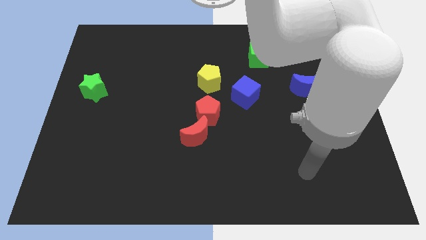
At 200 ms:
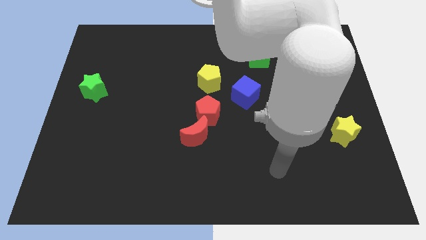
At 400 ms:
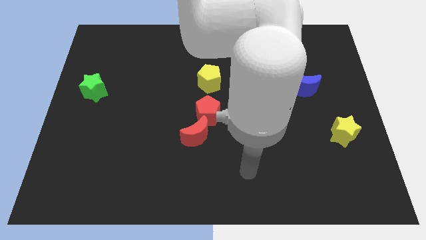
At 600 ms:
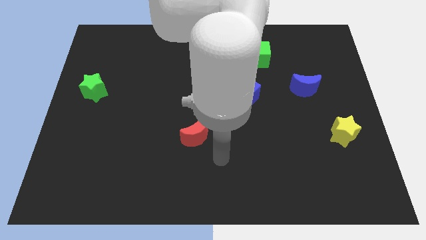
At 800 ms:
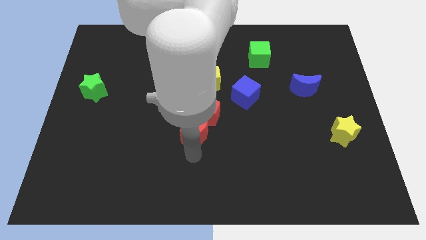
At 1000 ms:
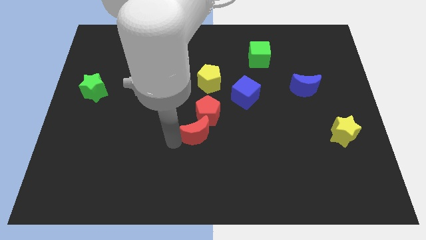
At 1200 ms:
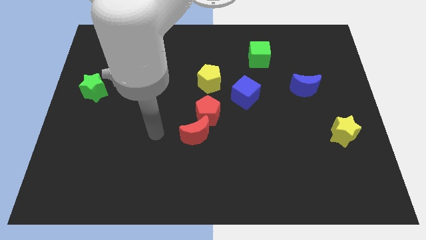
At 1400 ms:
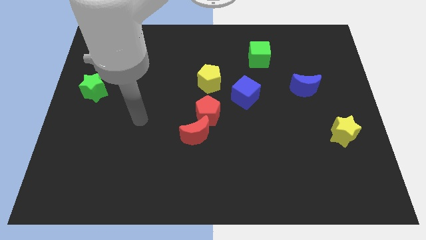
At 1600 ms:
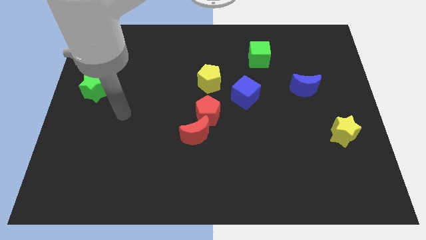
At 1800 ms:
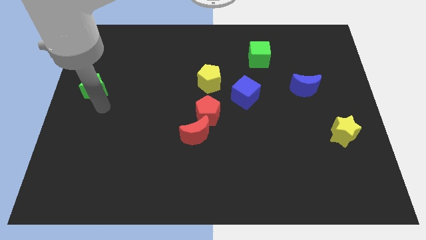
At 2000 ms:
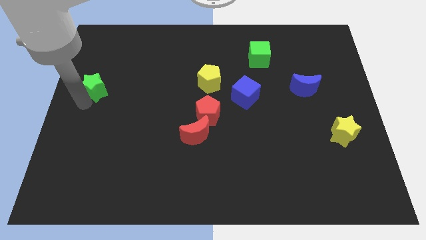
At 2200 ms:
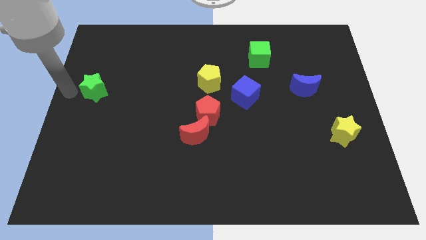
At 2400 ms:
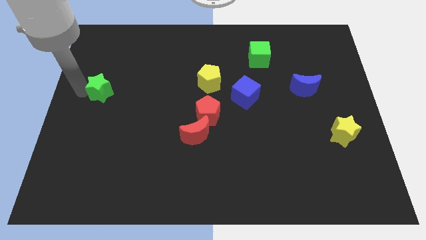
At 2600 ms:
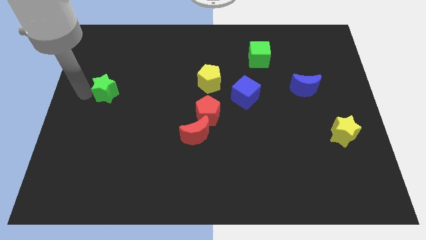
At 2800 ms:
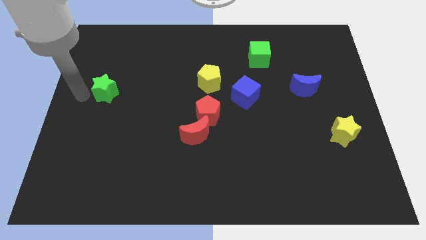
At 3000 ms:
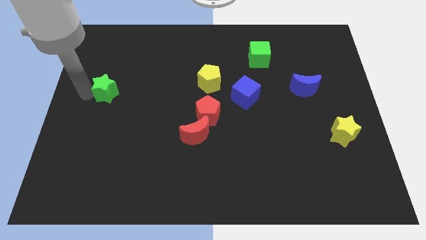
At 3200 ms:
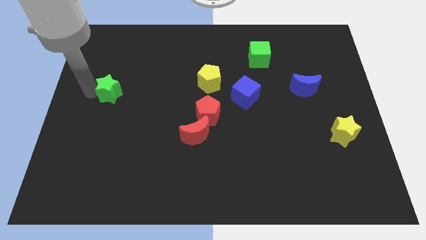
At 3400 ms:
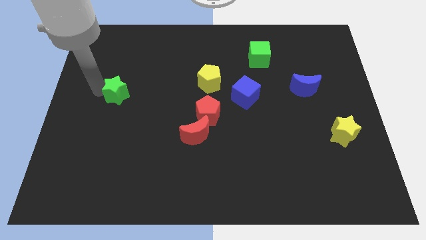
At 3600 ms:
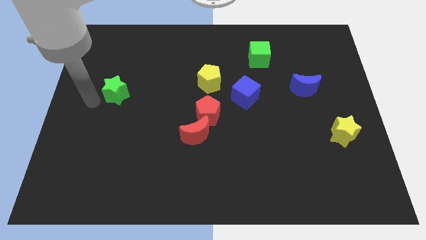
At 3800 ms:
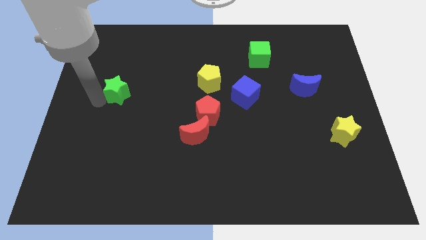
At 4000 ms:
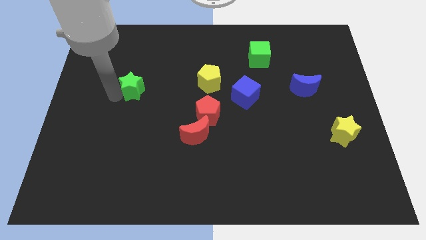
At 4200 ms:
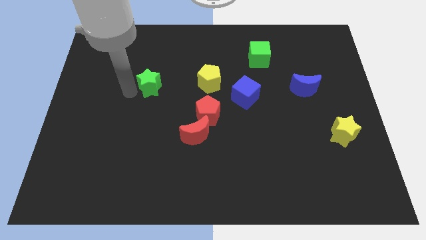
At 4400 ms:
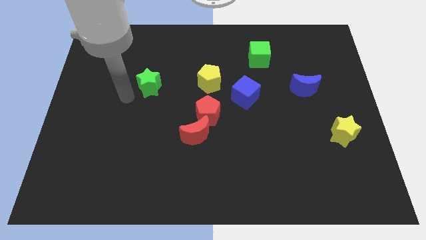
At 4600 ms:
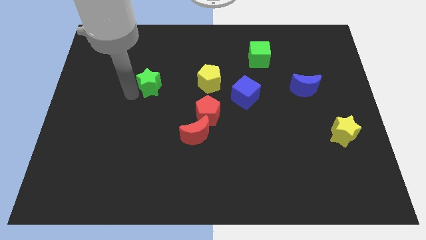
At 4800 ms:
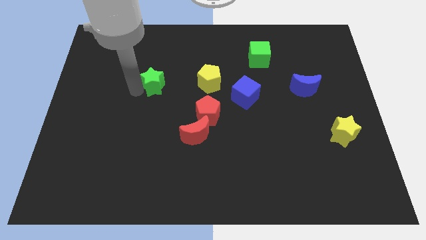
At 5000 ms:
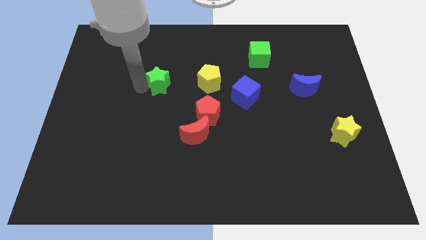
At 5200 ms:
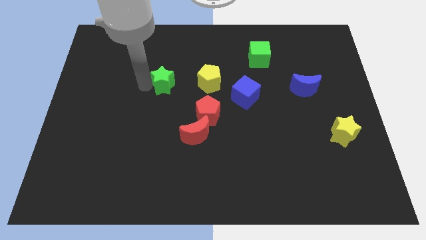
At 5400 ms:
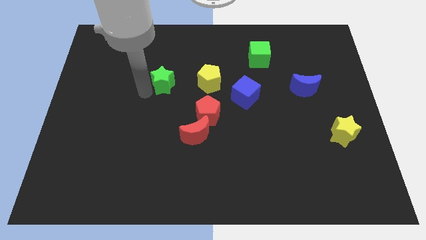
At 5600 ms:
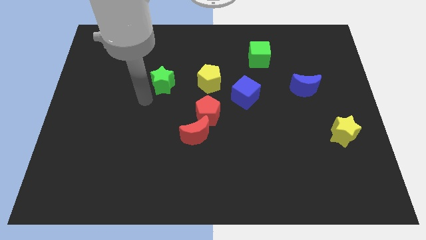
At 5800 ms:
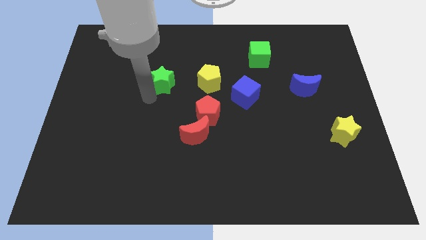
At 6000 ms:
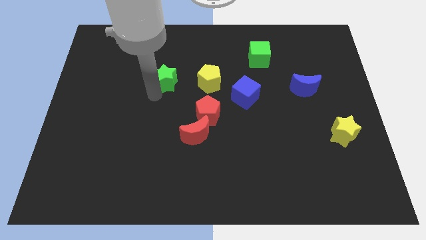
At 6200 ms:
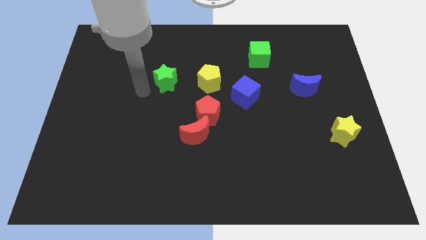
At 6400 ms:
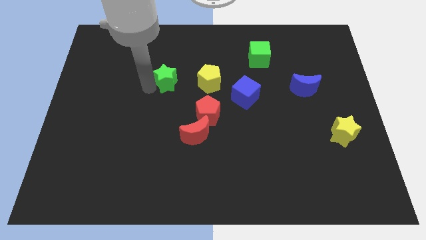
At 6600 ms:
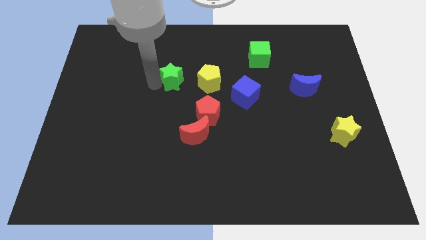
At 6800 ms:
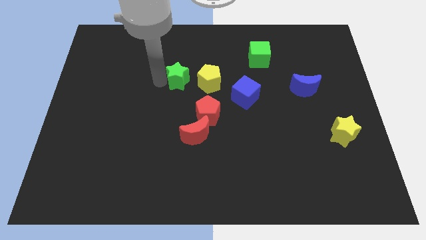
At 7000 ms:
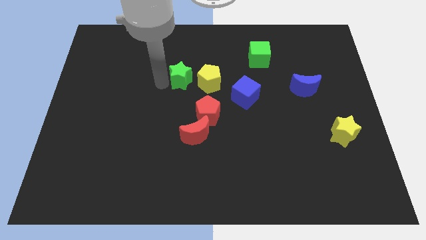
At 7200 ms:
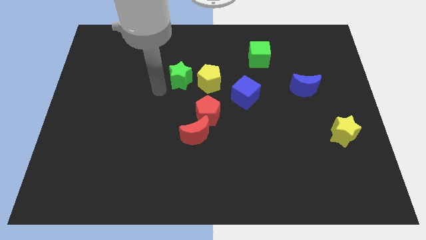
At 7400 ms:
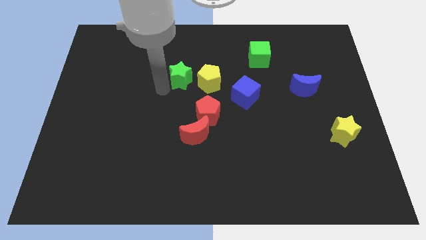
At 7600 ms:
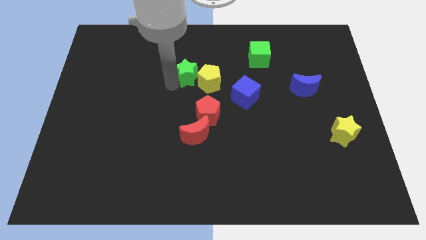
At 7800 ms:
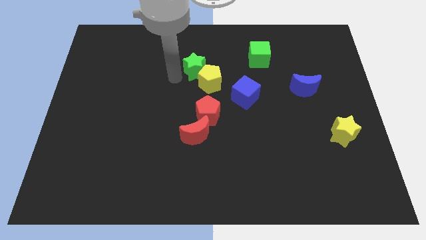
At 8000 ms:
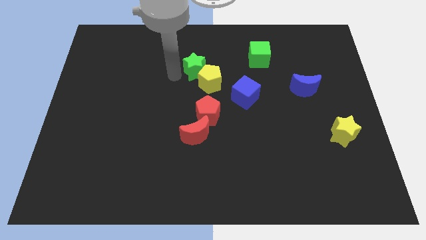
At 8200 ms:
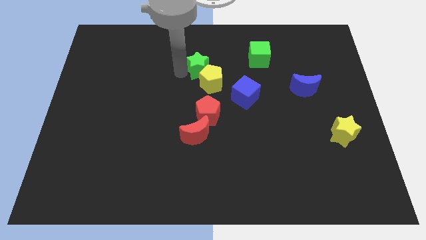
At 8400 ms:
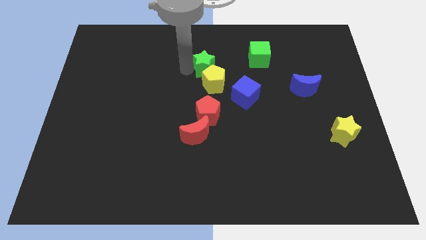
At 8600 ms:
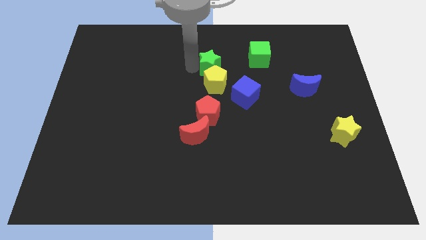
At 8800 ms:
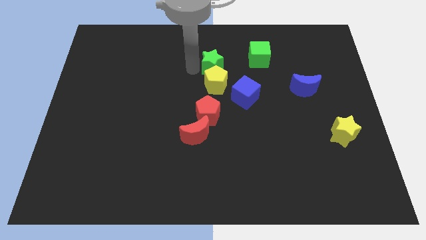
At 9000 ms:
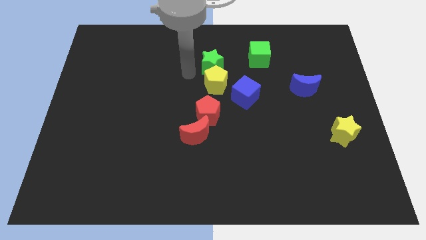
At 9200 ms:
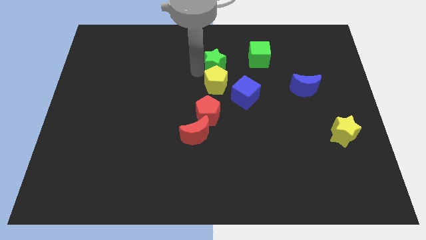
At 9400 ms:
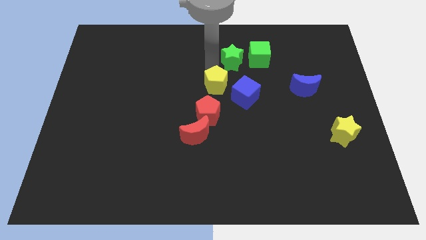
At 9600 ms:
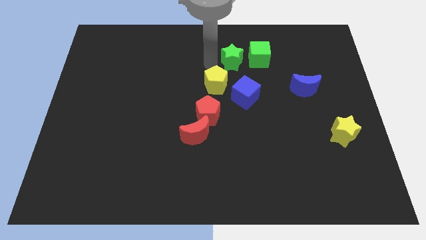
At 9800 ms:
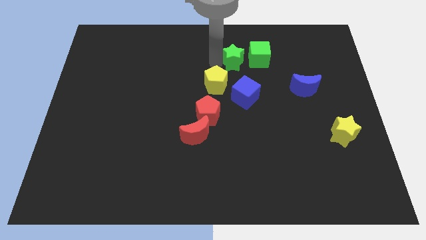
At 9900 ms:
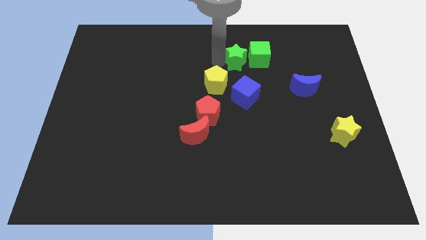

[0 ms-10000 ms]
move the green star next to the green cube

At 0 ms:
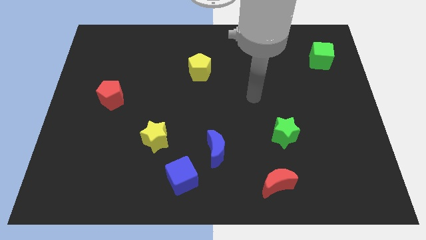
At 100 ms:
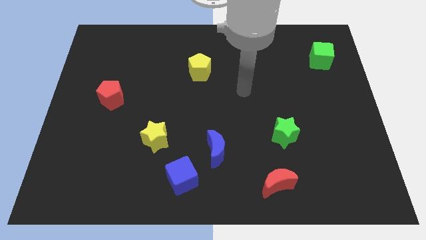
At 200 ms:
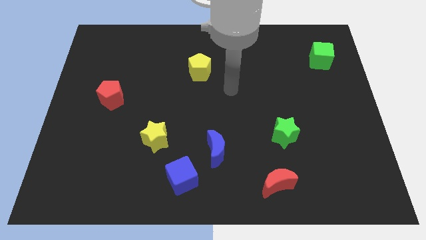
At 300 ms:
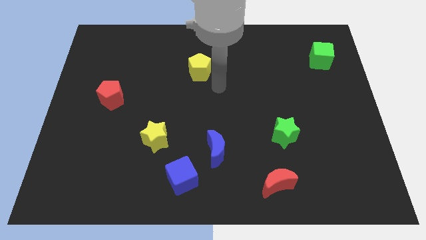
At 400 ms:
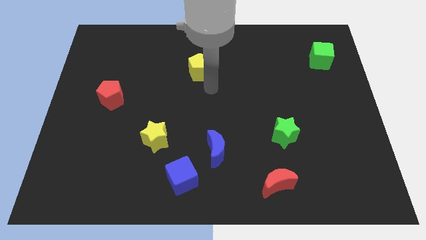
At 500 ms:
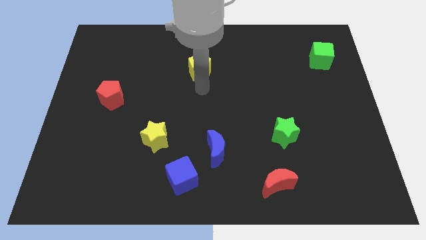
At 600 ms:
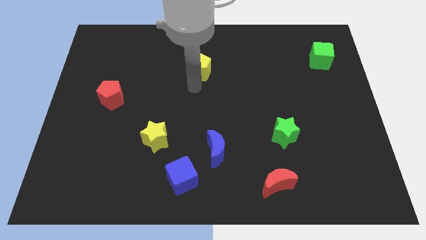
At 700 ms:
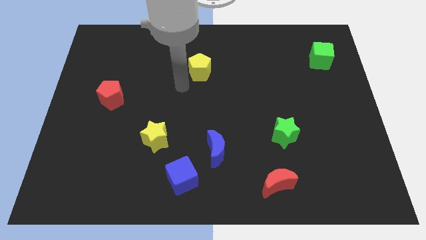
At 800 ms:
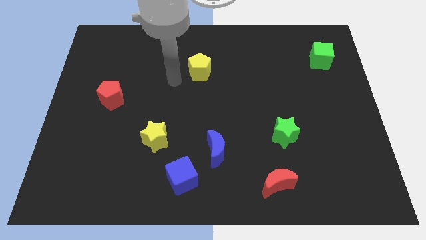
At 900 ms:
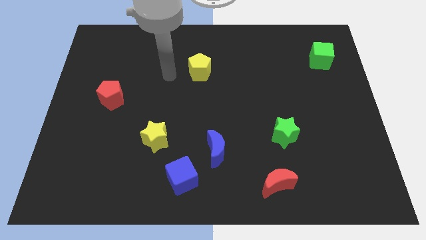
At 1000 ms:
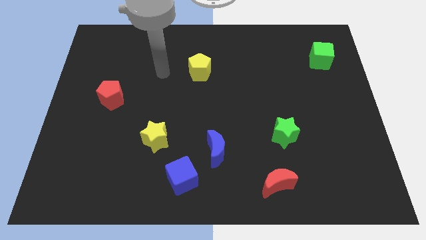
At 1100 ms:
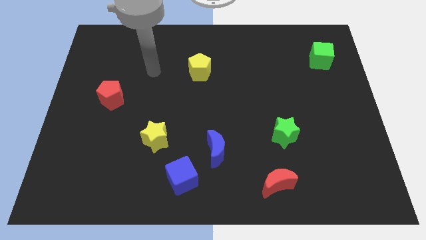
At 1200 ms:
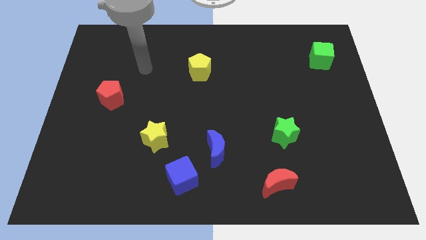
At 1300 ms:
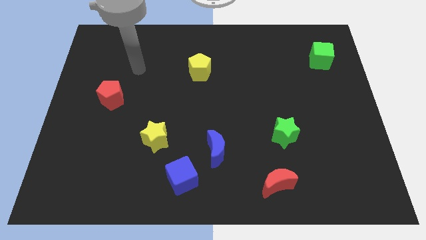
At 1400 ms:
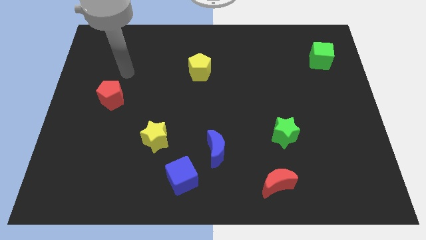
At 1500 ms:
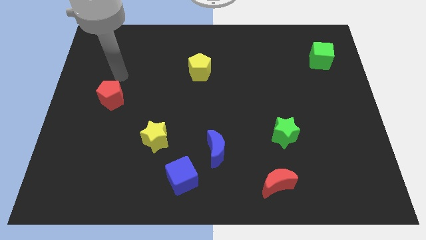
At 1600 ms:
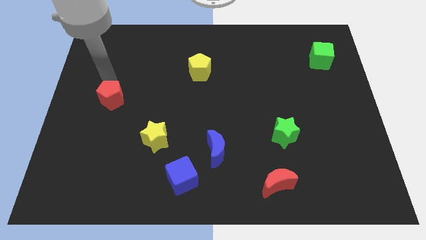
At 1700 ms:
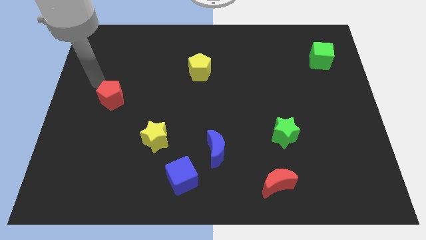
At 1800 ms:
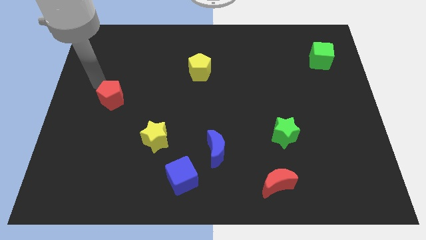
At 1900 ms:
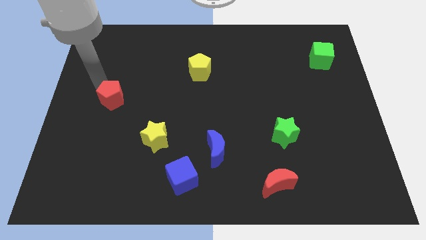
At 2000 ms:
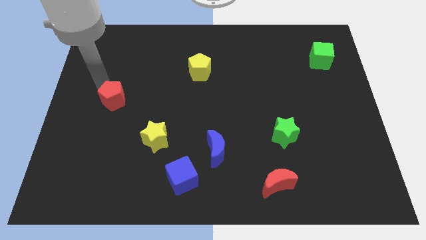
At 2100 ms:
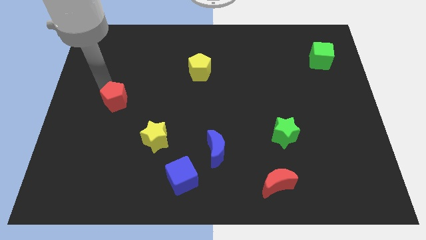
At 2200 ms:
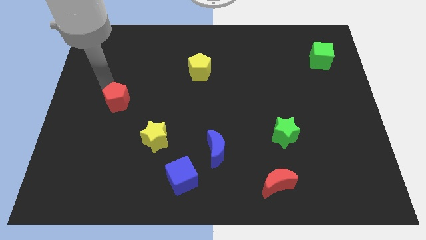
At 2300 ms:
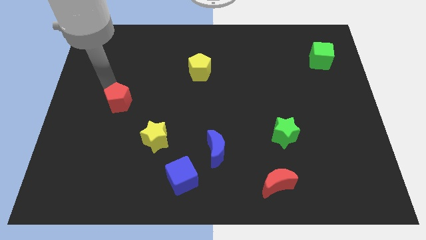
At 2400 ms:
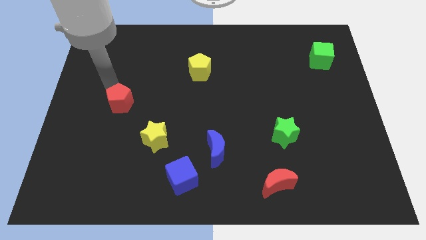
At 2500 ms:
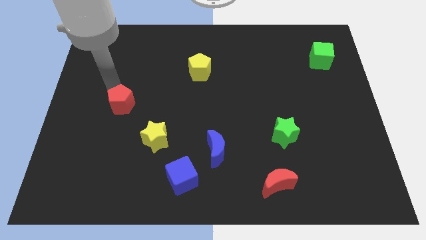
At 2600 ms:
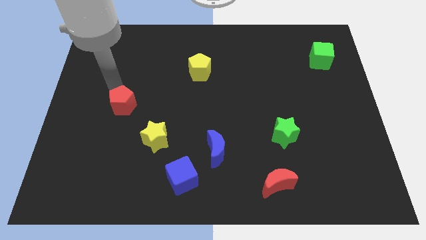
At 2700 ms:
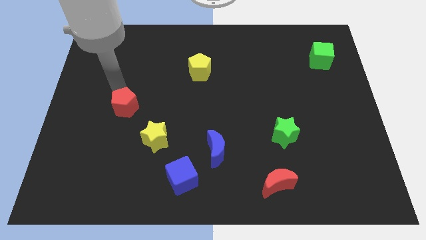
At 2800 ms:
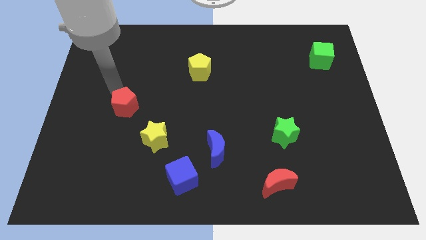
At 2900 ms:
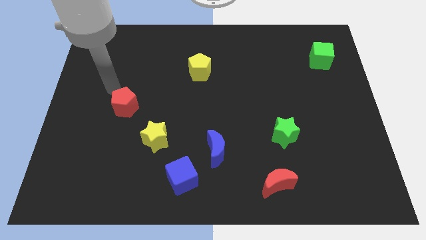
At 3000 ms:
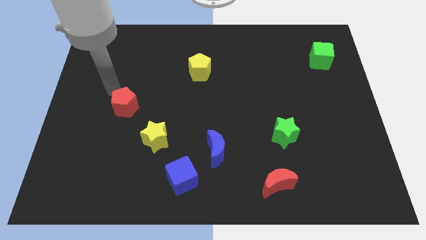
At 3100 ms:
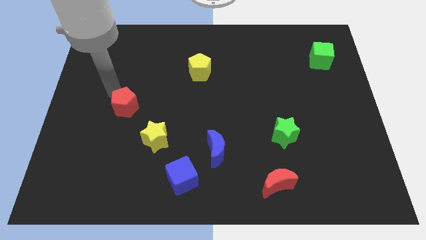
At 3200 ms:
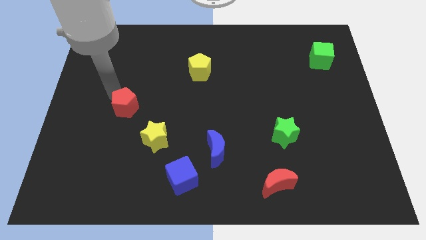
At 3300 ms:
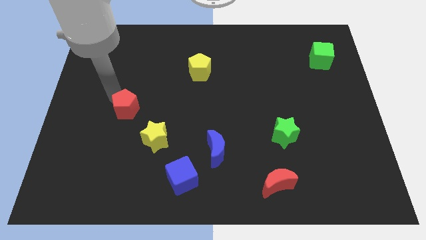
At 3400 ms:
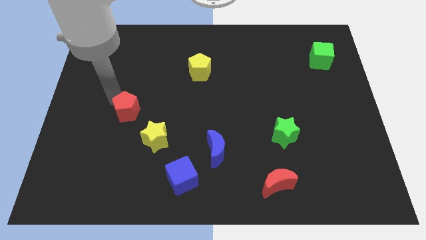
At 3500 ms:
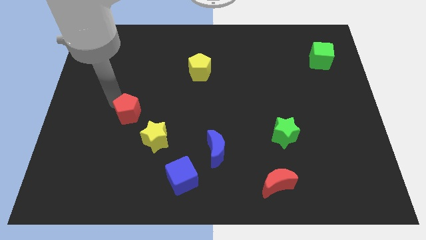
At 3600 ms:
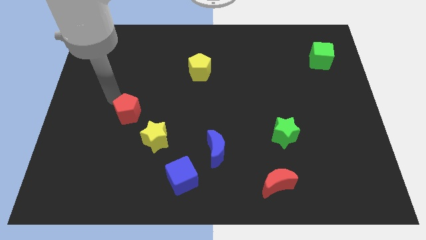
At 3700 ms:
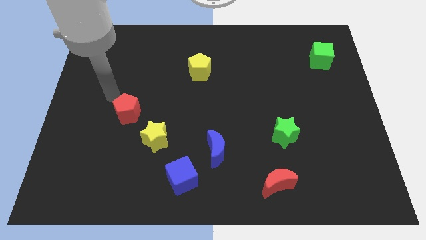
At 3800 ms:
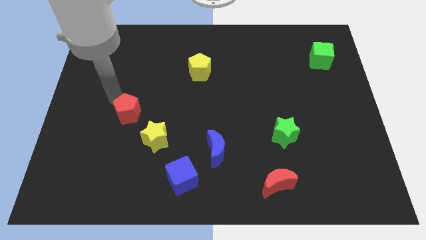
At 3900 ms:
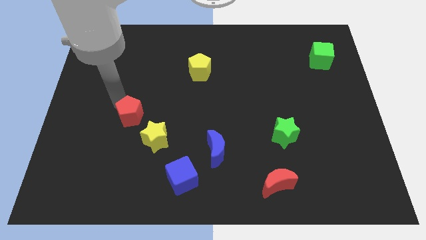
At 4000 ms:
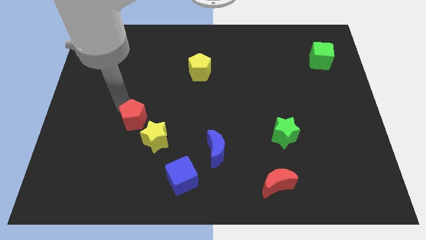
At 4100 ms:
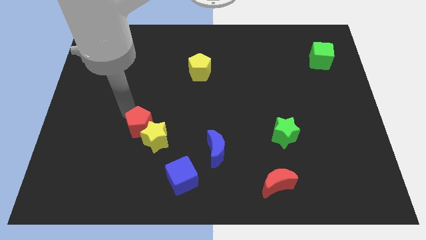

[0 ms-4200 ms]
move the red pentagon close to the yellow star
